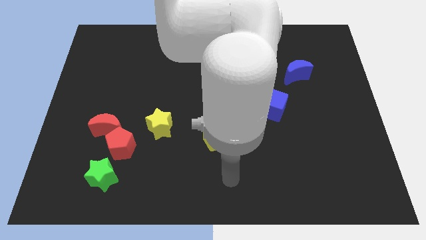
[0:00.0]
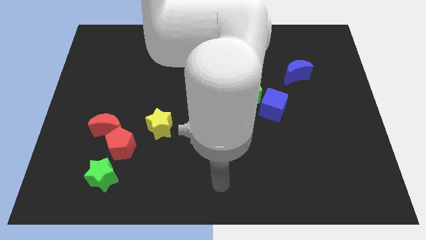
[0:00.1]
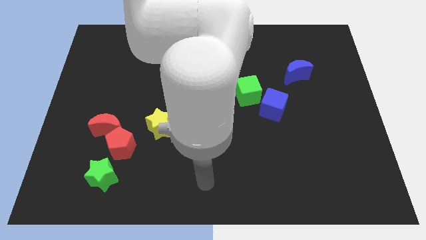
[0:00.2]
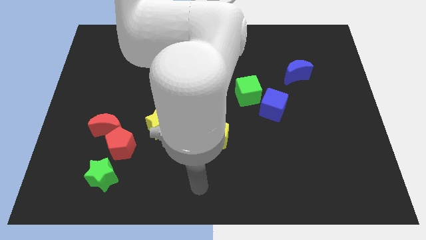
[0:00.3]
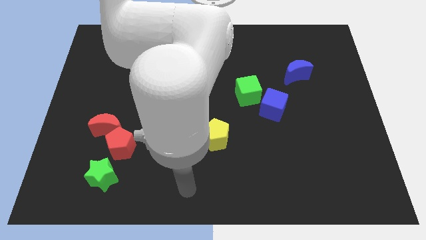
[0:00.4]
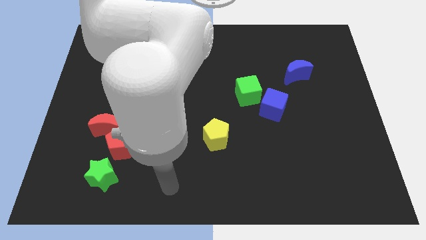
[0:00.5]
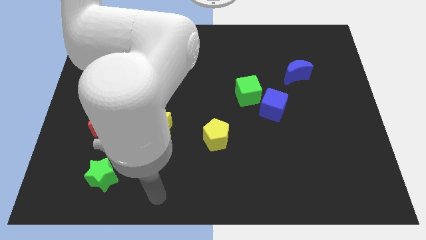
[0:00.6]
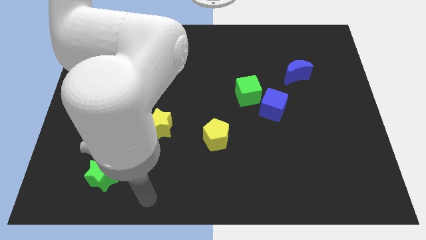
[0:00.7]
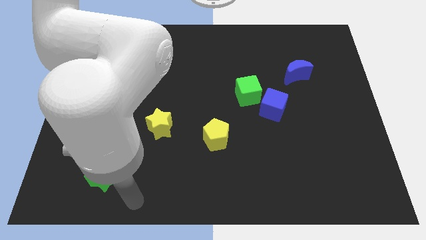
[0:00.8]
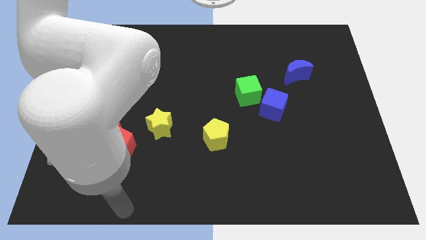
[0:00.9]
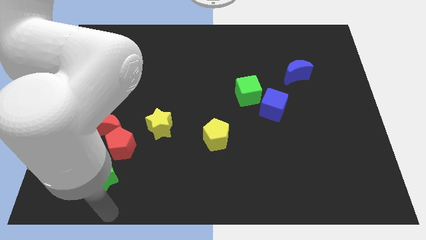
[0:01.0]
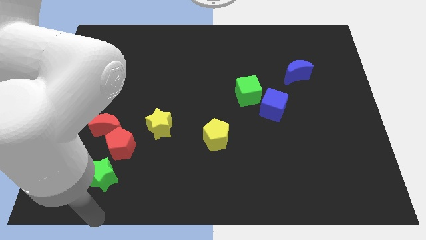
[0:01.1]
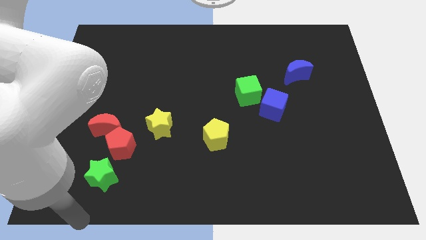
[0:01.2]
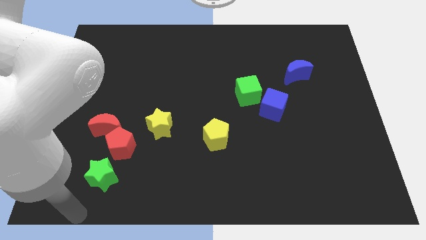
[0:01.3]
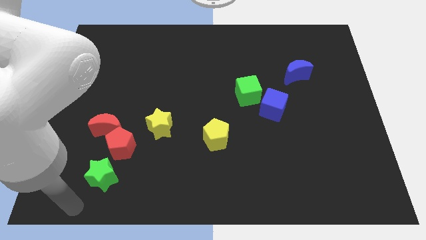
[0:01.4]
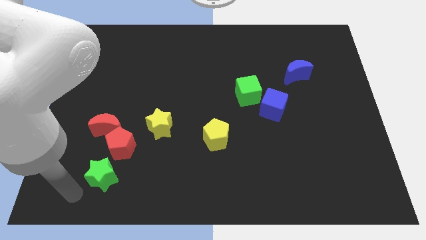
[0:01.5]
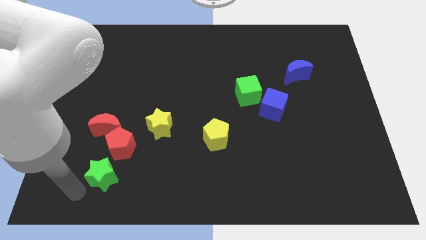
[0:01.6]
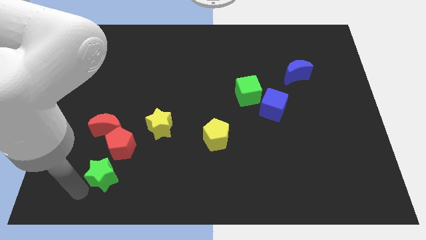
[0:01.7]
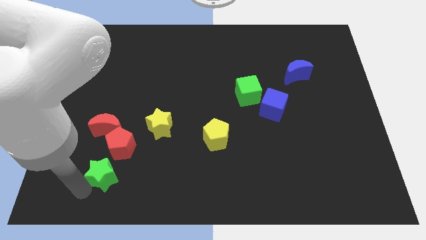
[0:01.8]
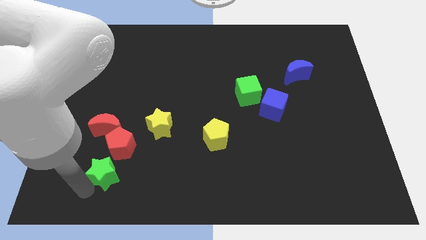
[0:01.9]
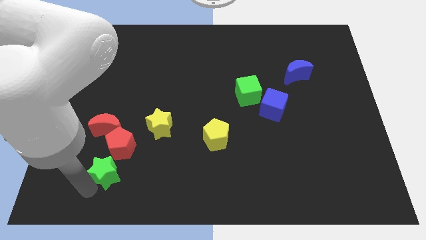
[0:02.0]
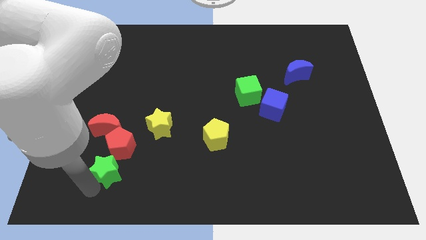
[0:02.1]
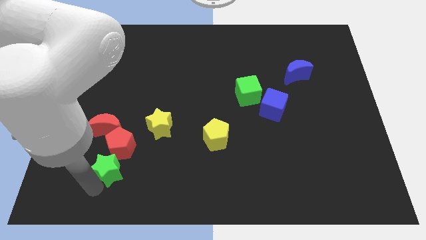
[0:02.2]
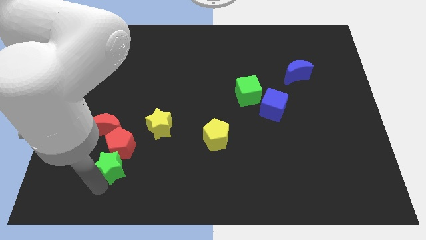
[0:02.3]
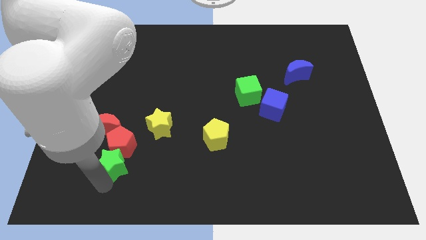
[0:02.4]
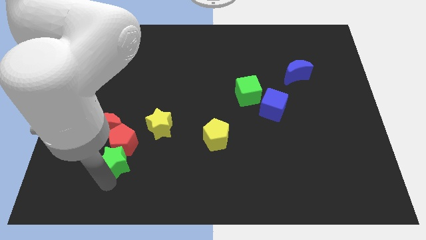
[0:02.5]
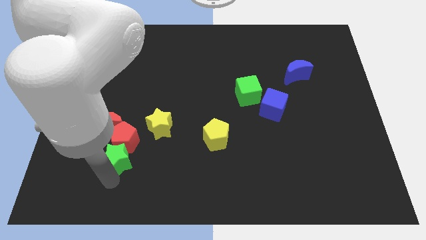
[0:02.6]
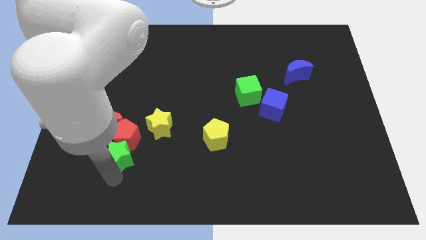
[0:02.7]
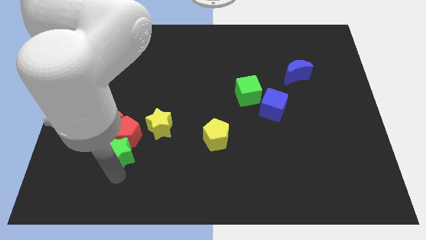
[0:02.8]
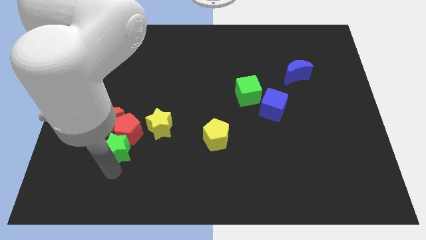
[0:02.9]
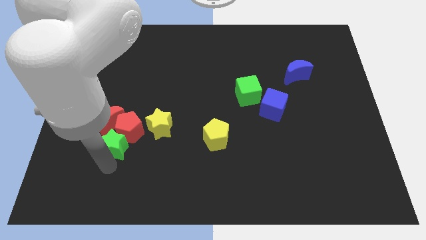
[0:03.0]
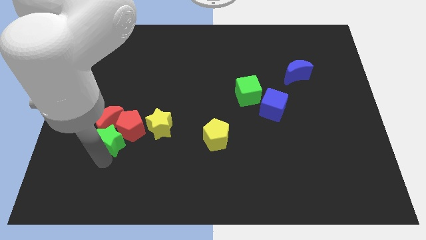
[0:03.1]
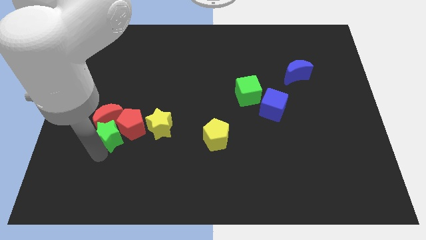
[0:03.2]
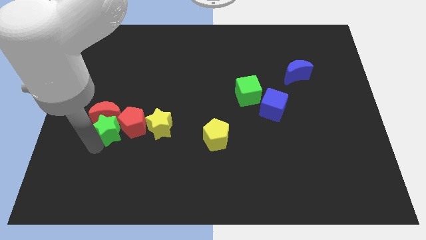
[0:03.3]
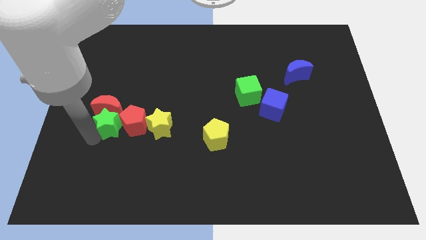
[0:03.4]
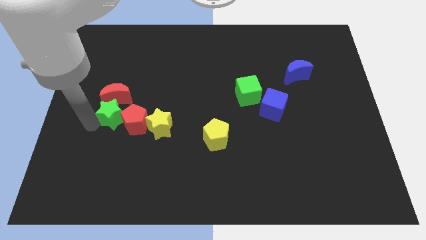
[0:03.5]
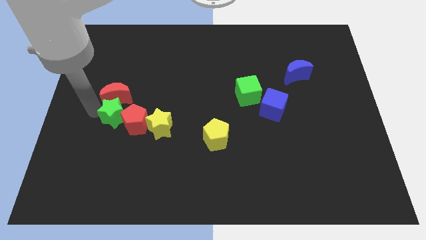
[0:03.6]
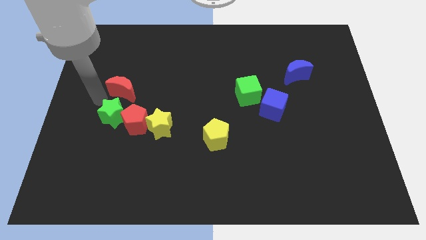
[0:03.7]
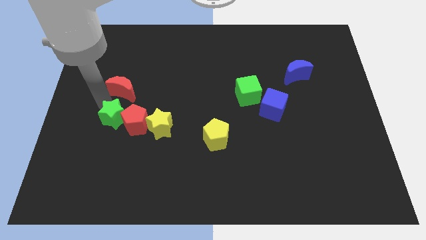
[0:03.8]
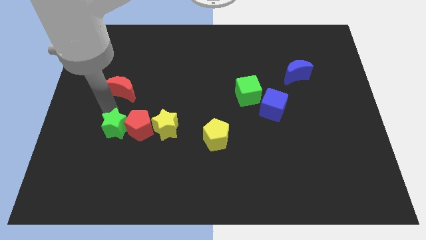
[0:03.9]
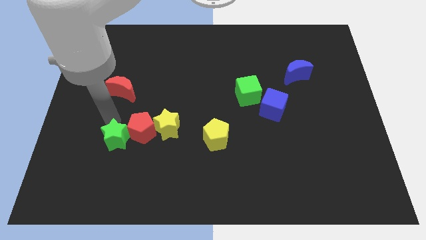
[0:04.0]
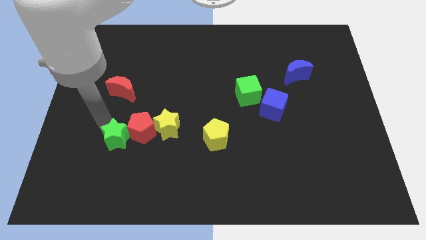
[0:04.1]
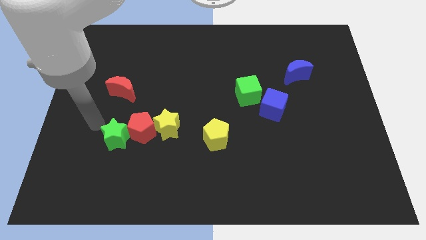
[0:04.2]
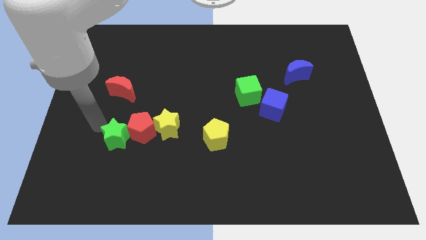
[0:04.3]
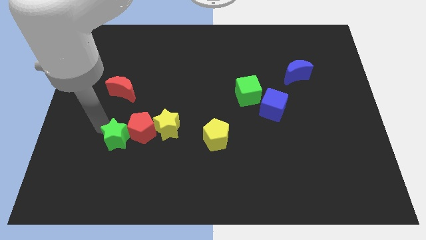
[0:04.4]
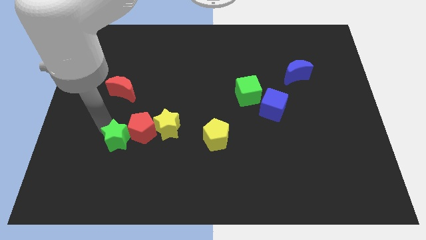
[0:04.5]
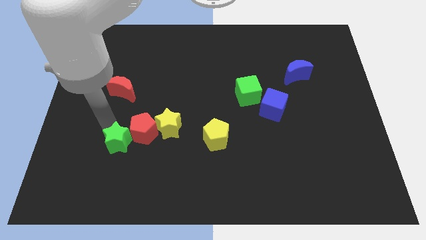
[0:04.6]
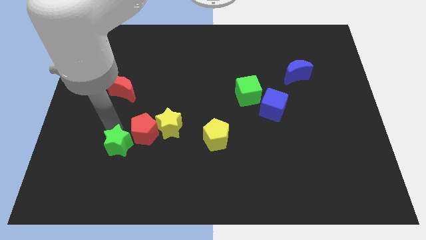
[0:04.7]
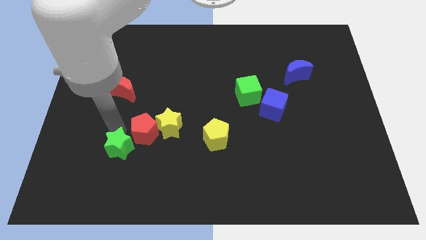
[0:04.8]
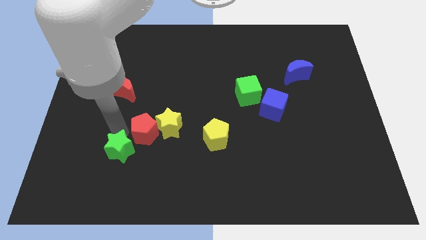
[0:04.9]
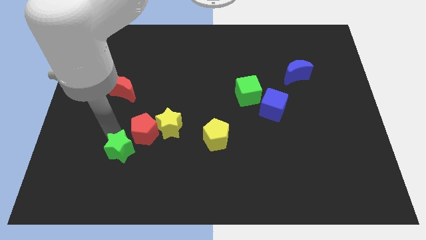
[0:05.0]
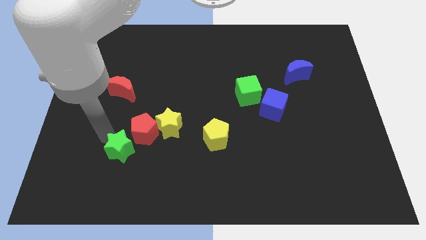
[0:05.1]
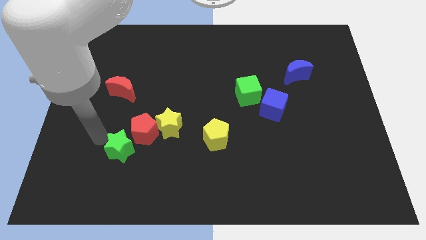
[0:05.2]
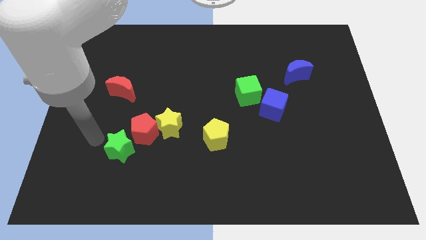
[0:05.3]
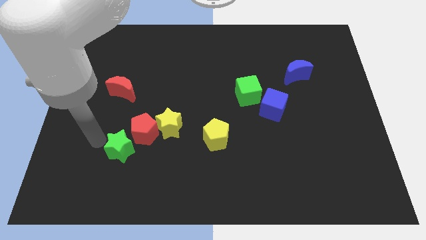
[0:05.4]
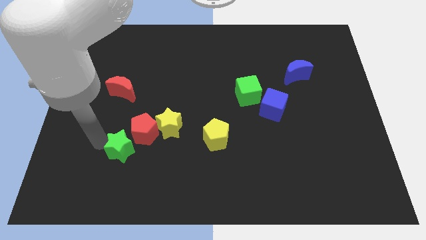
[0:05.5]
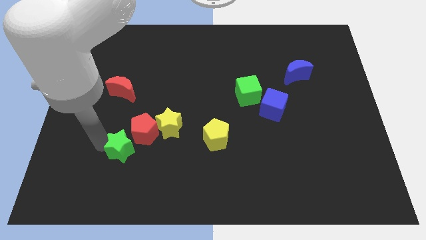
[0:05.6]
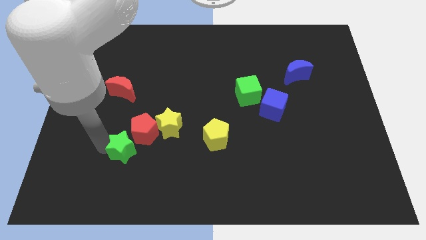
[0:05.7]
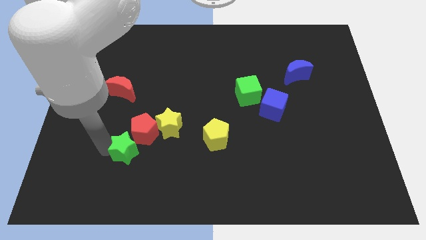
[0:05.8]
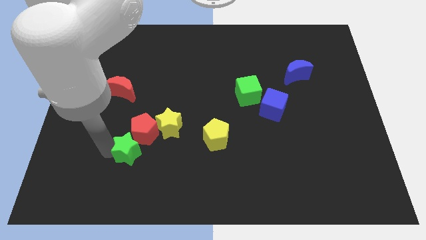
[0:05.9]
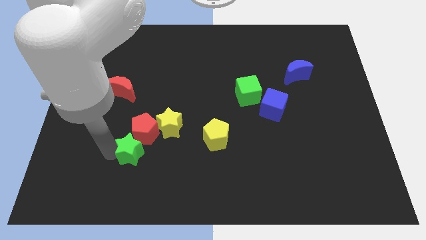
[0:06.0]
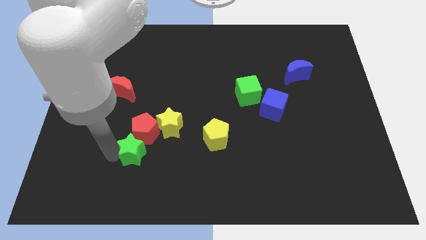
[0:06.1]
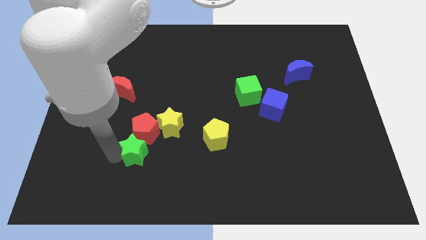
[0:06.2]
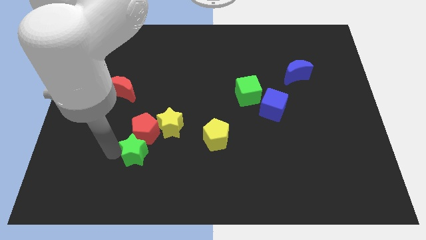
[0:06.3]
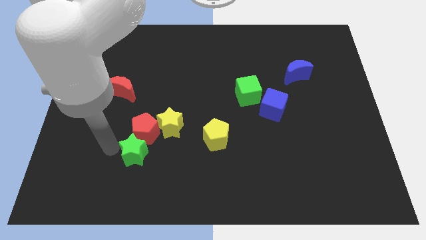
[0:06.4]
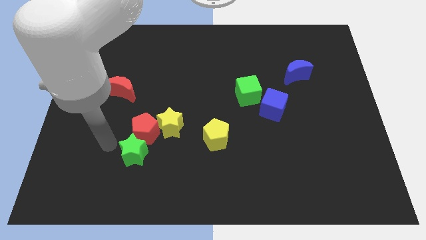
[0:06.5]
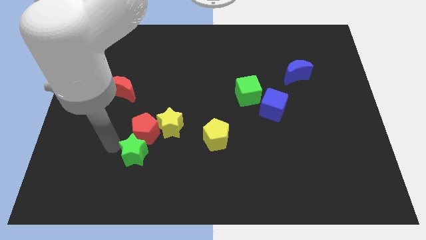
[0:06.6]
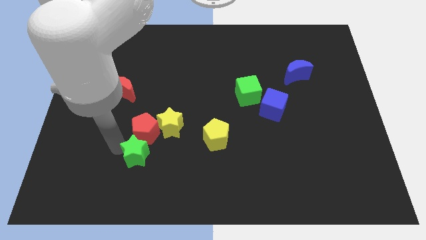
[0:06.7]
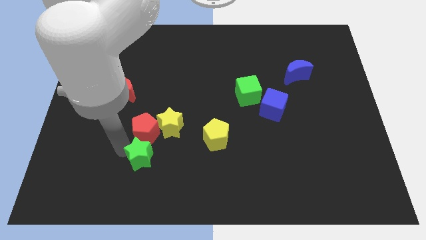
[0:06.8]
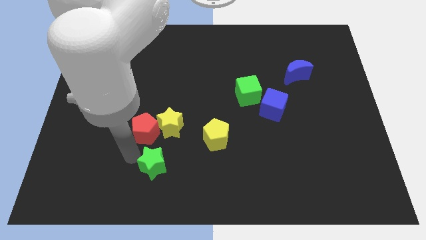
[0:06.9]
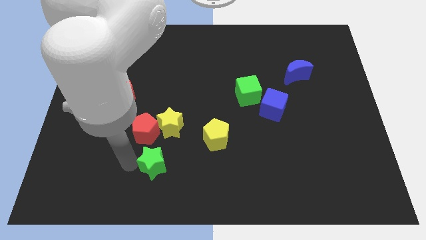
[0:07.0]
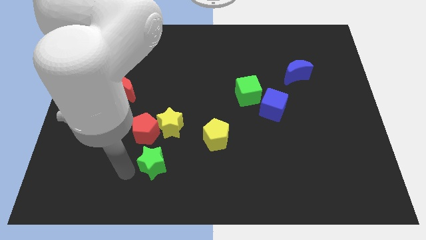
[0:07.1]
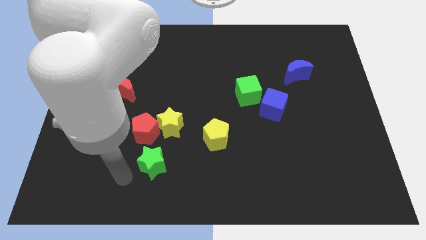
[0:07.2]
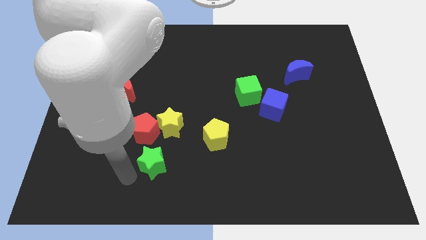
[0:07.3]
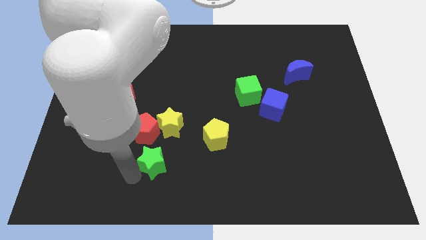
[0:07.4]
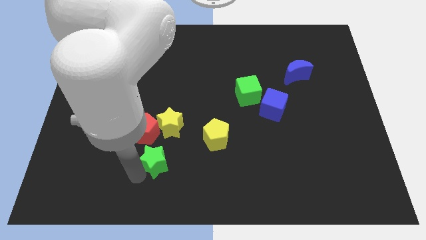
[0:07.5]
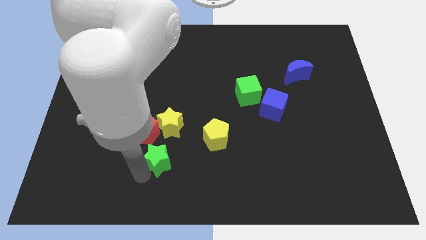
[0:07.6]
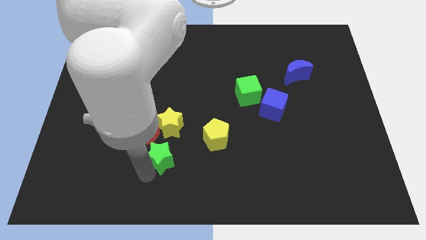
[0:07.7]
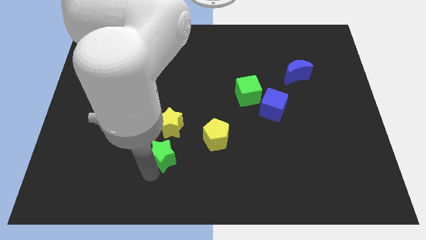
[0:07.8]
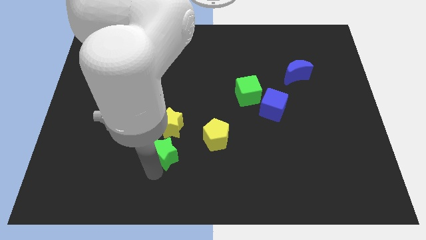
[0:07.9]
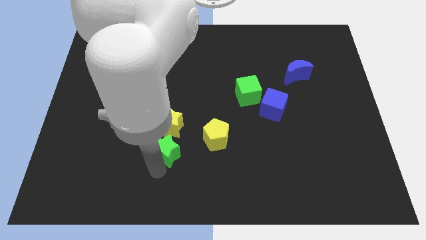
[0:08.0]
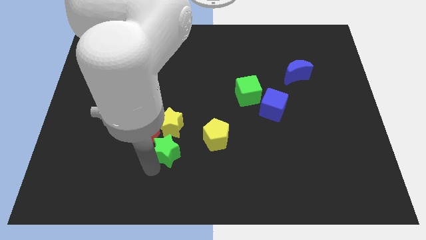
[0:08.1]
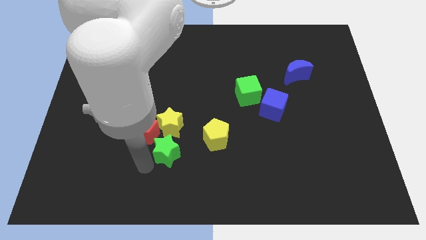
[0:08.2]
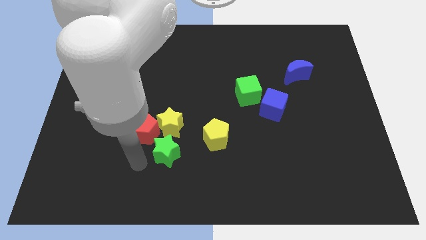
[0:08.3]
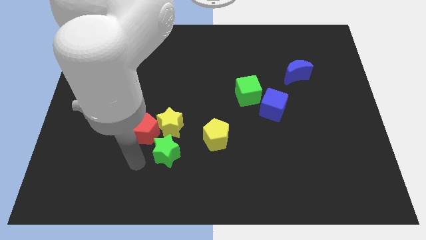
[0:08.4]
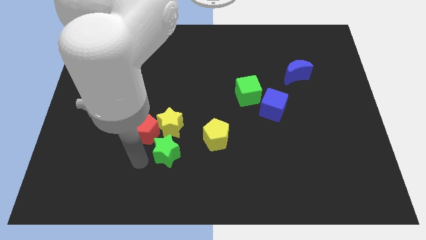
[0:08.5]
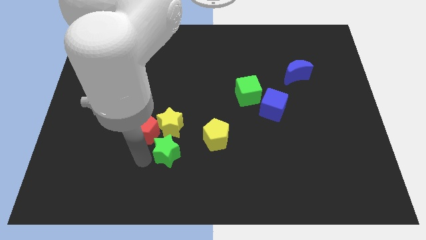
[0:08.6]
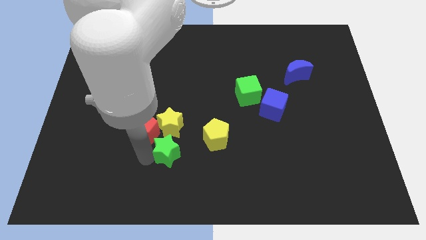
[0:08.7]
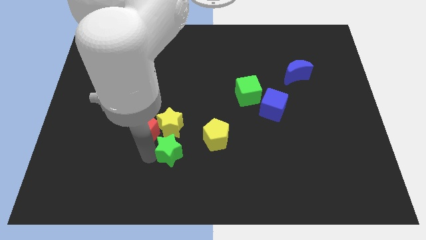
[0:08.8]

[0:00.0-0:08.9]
slide the green star to the bottom right side of the yellow star
